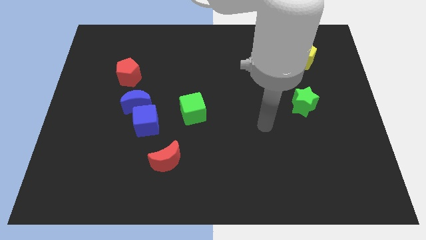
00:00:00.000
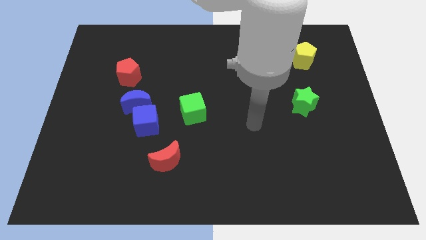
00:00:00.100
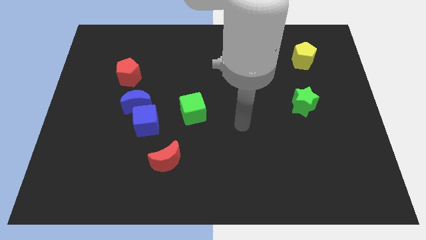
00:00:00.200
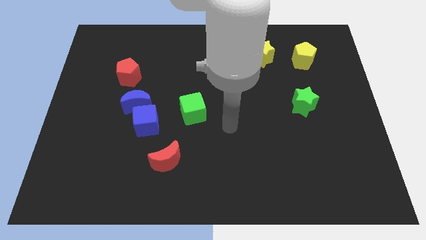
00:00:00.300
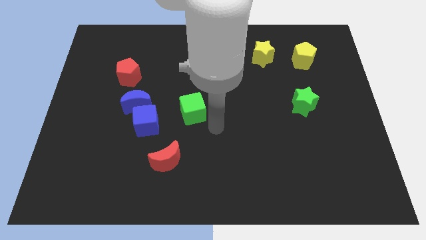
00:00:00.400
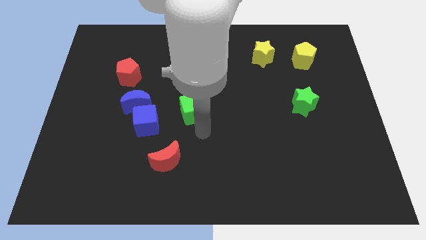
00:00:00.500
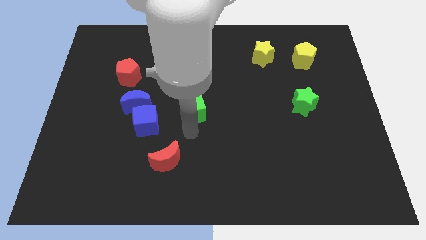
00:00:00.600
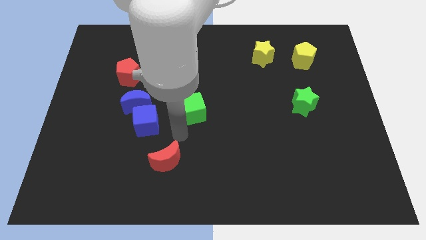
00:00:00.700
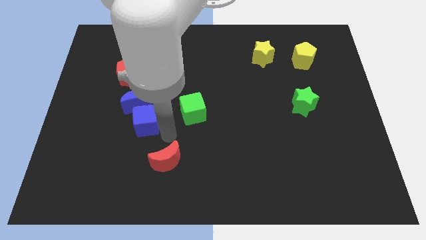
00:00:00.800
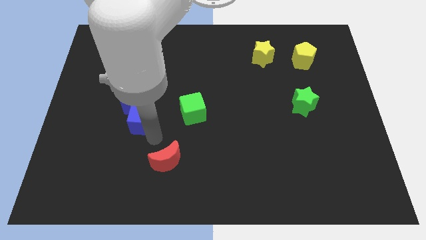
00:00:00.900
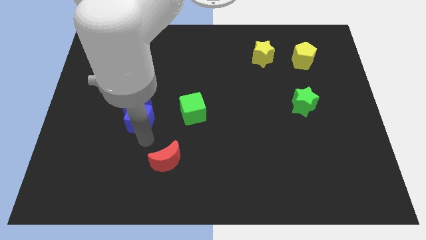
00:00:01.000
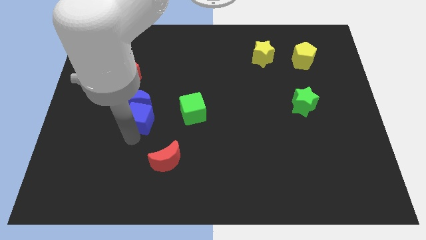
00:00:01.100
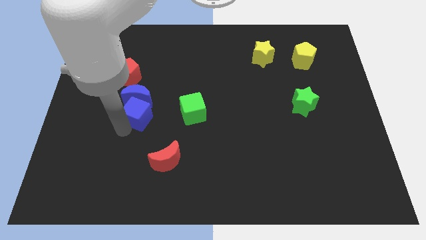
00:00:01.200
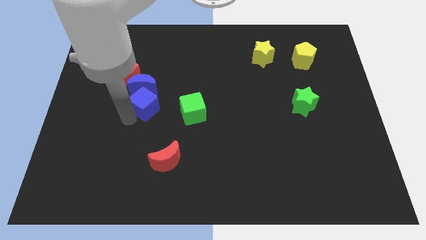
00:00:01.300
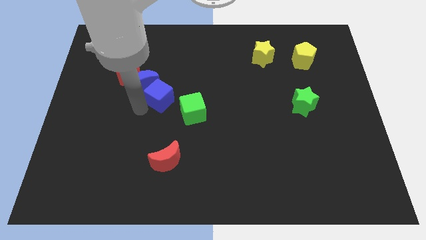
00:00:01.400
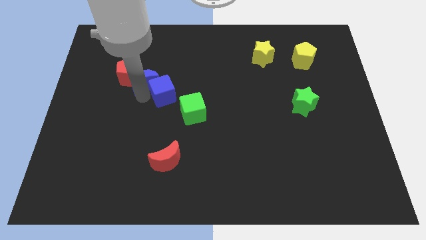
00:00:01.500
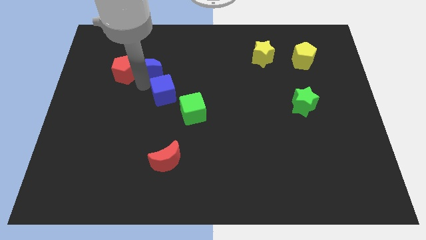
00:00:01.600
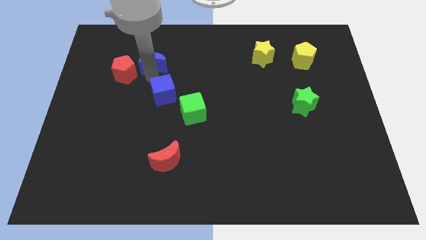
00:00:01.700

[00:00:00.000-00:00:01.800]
move the blue cube away from the blue moon

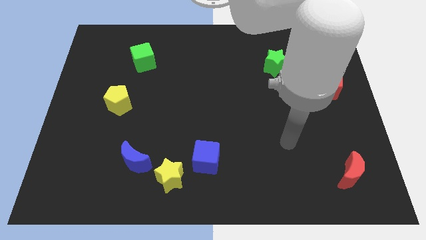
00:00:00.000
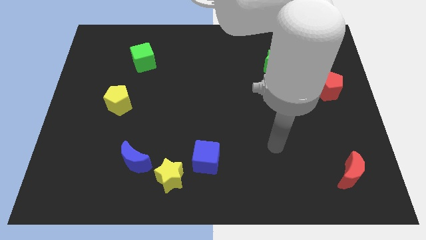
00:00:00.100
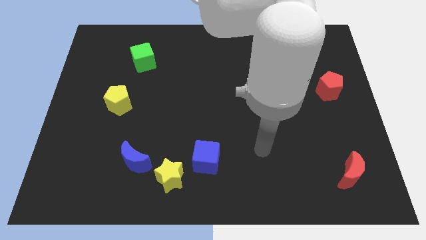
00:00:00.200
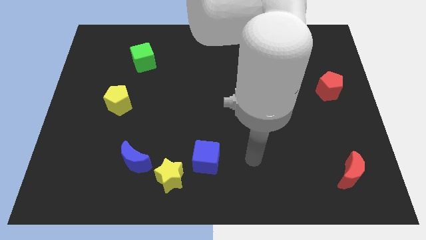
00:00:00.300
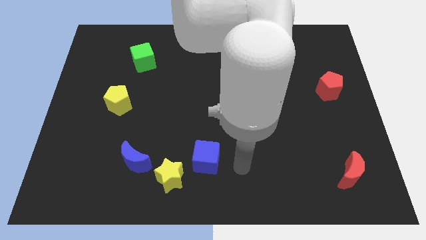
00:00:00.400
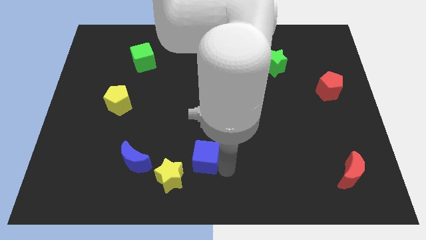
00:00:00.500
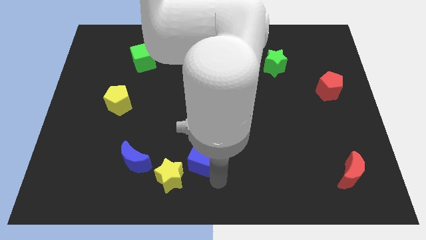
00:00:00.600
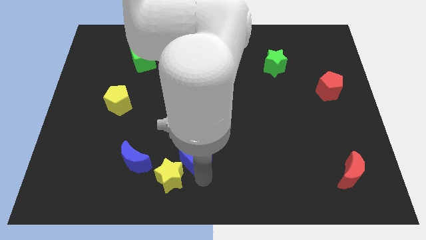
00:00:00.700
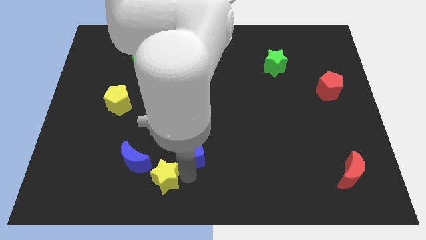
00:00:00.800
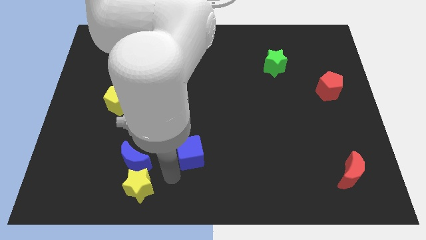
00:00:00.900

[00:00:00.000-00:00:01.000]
move the blue cube away from the yellow star

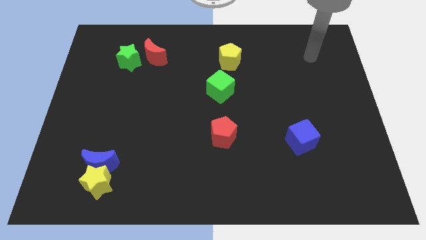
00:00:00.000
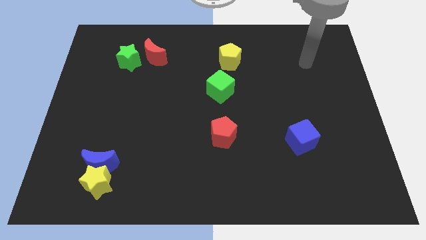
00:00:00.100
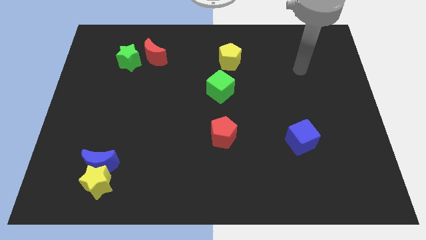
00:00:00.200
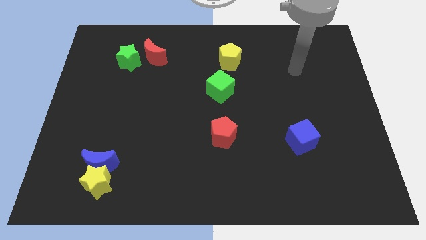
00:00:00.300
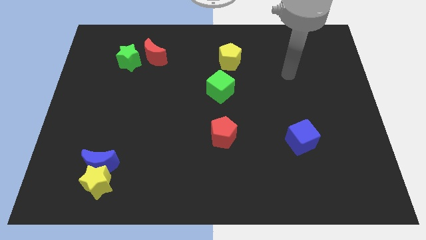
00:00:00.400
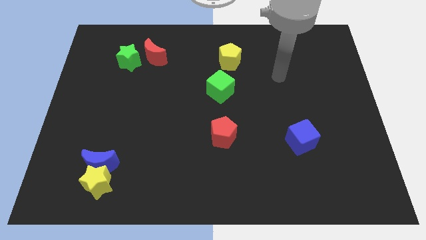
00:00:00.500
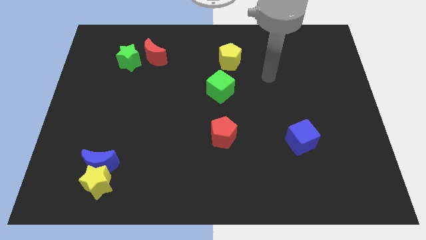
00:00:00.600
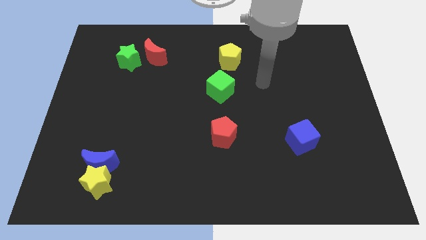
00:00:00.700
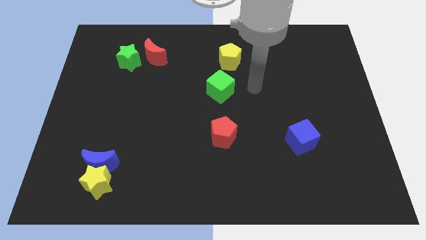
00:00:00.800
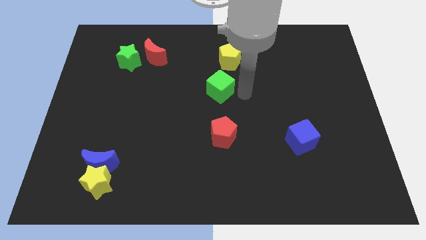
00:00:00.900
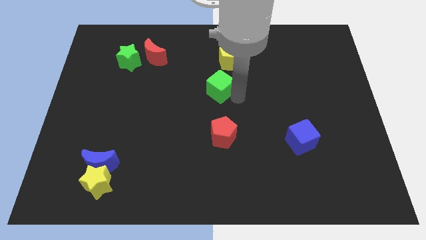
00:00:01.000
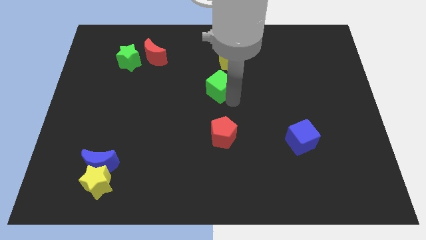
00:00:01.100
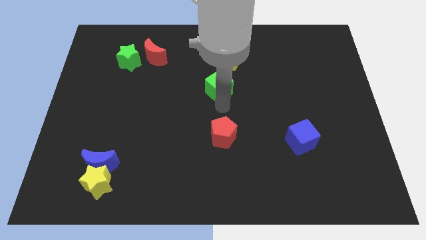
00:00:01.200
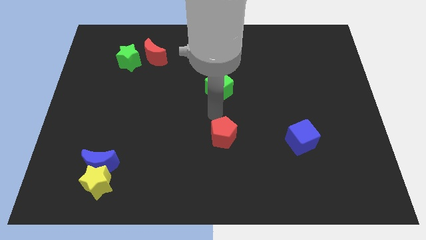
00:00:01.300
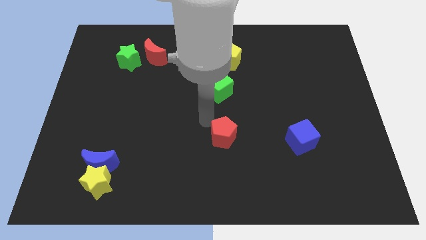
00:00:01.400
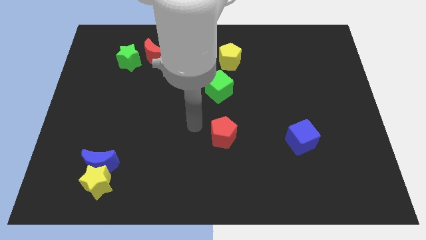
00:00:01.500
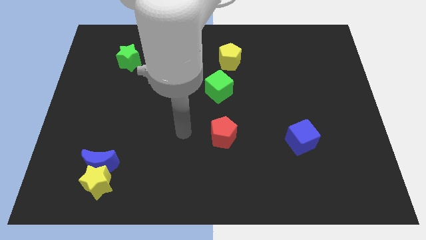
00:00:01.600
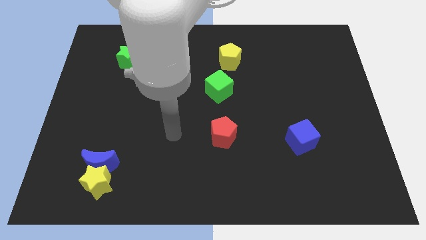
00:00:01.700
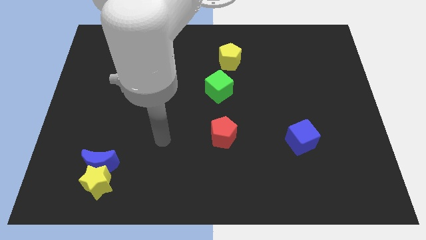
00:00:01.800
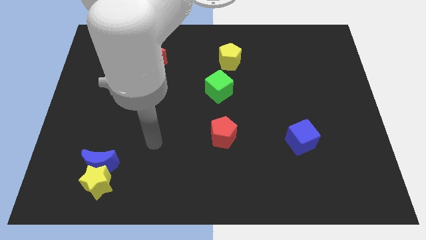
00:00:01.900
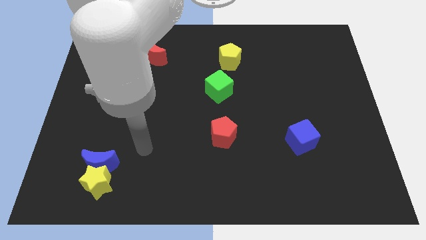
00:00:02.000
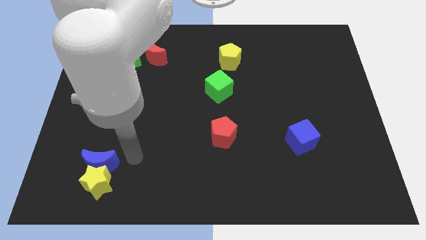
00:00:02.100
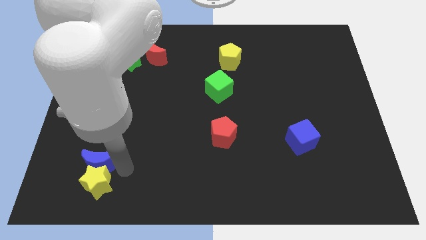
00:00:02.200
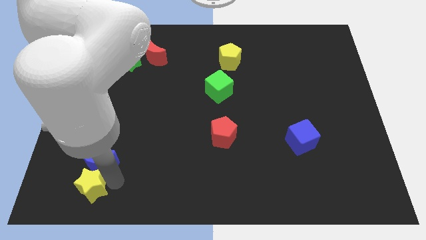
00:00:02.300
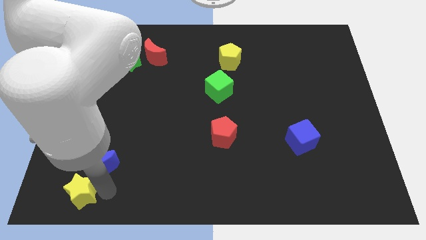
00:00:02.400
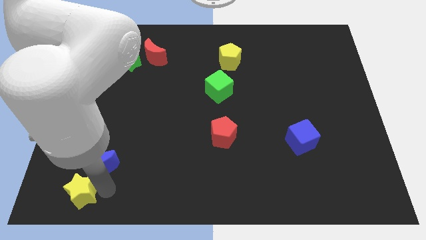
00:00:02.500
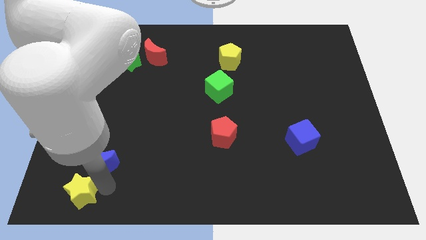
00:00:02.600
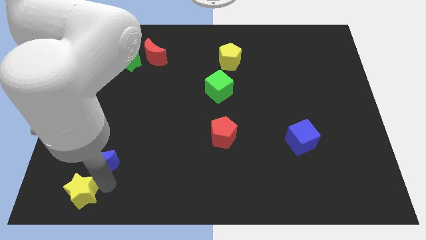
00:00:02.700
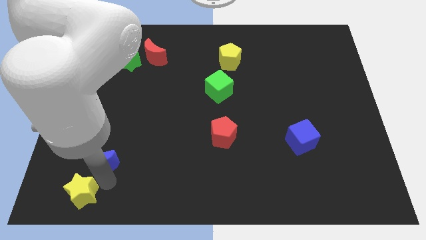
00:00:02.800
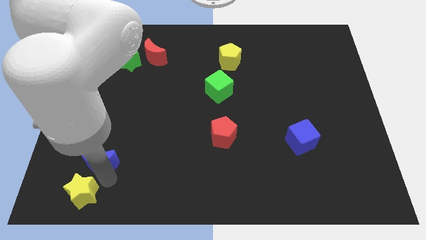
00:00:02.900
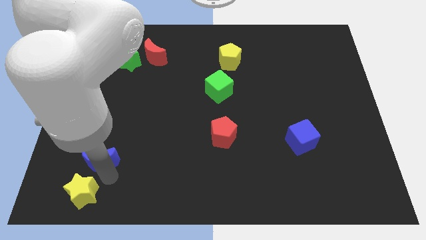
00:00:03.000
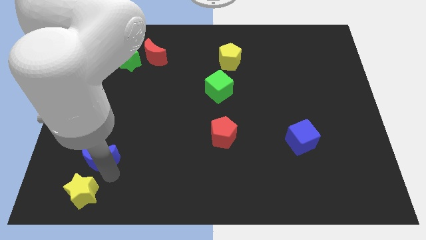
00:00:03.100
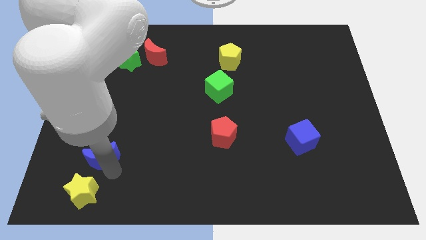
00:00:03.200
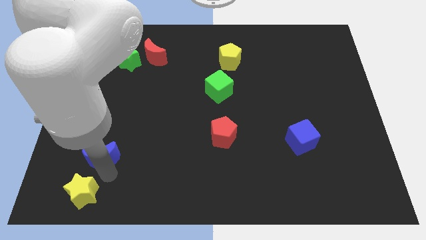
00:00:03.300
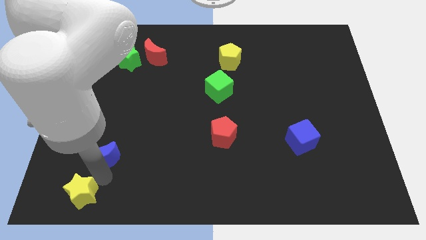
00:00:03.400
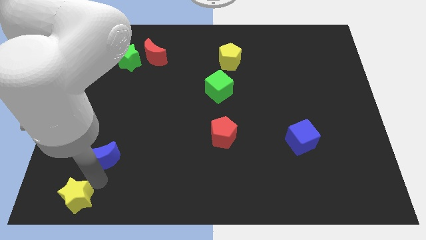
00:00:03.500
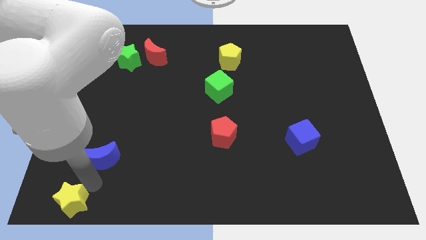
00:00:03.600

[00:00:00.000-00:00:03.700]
move the blue moon away from the yellow star

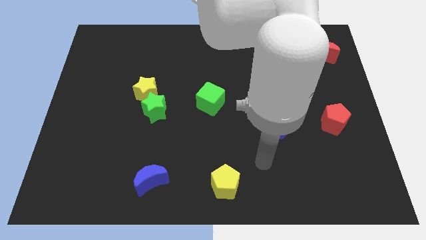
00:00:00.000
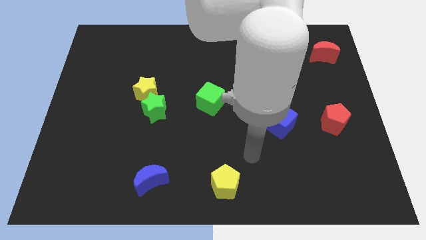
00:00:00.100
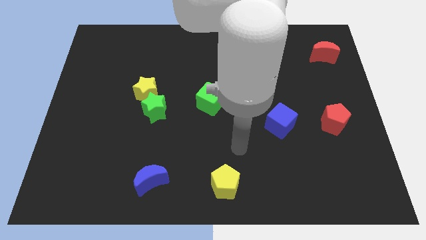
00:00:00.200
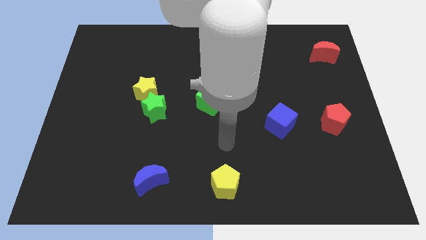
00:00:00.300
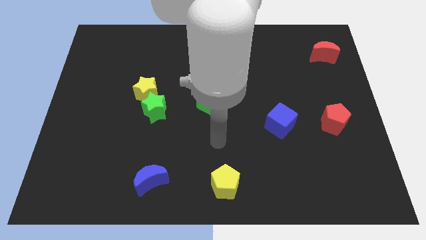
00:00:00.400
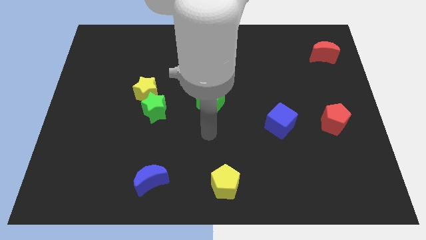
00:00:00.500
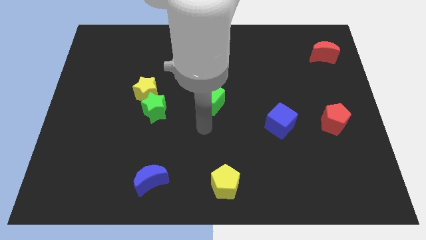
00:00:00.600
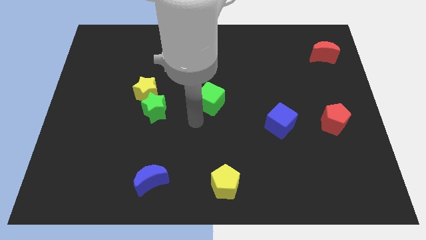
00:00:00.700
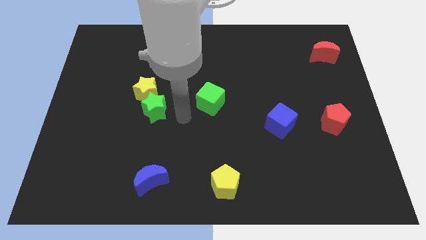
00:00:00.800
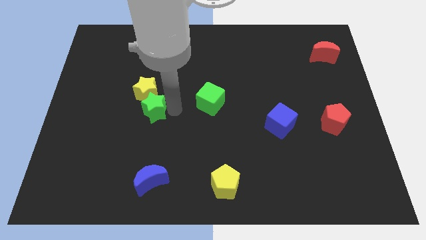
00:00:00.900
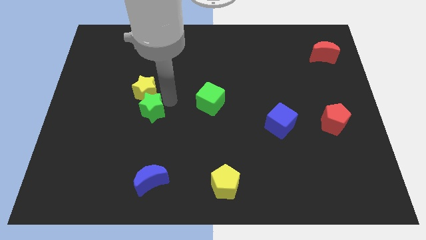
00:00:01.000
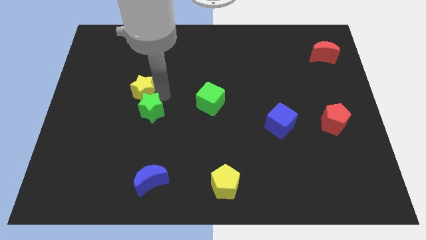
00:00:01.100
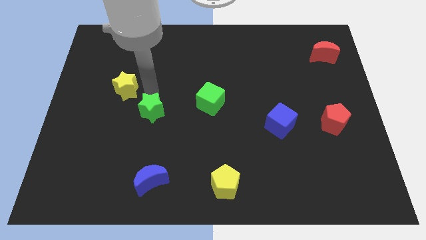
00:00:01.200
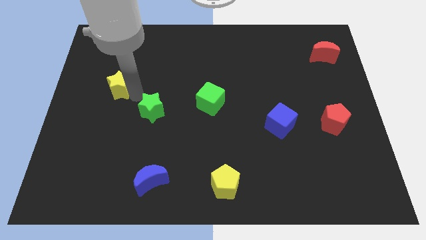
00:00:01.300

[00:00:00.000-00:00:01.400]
separate the green star from the yellow star

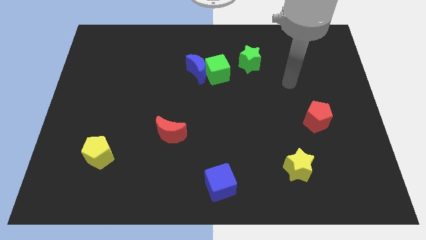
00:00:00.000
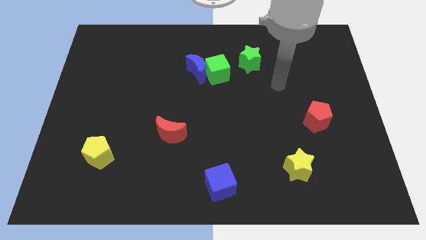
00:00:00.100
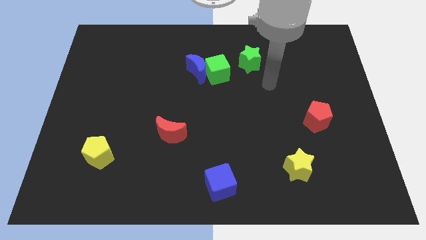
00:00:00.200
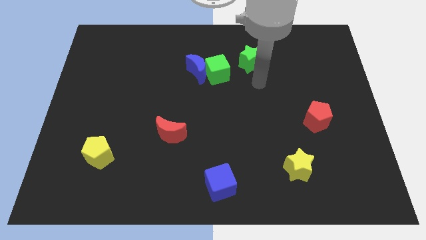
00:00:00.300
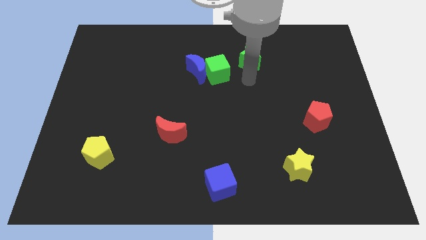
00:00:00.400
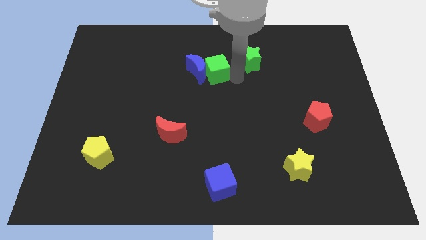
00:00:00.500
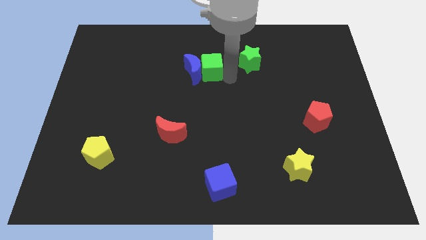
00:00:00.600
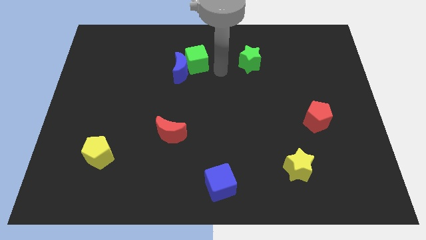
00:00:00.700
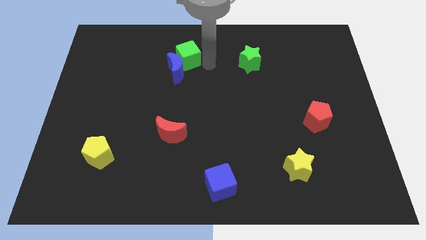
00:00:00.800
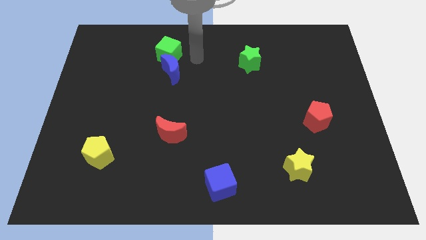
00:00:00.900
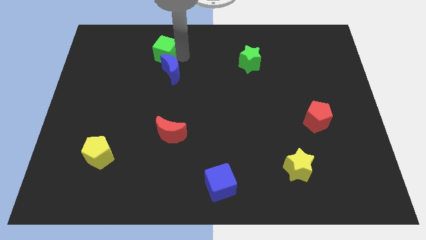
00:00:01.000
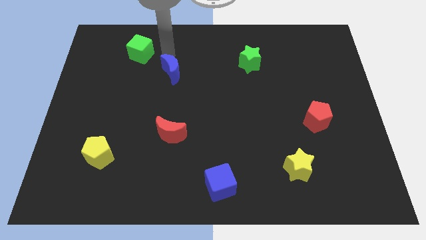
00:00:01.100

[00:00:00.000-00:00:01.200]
separate the blue moon from the green cube

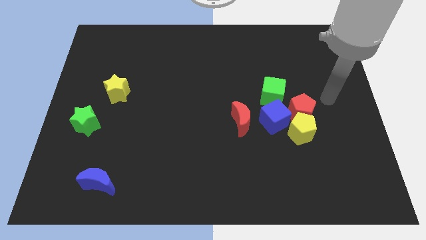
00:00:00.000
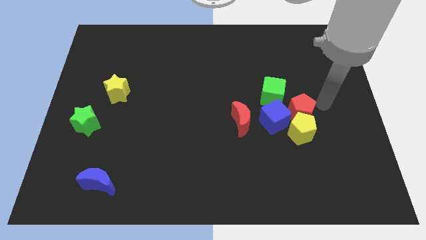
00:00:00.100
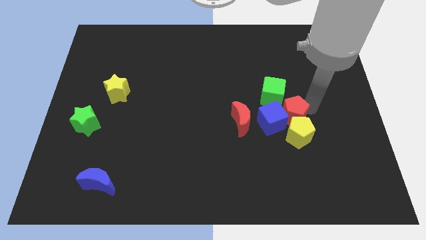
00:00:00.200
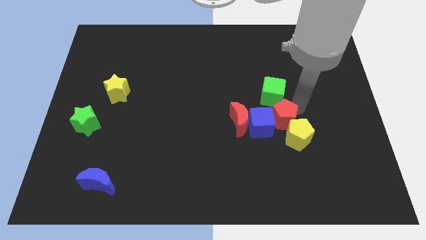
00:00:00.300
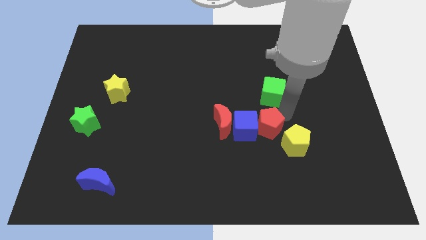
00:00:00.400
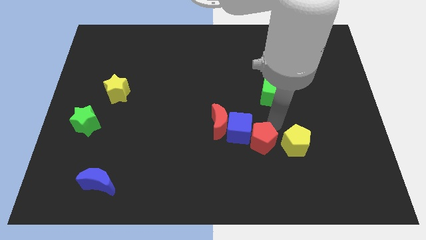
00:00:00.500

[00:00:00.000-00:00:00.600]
separate the yellow pentagon from the red pentagon and blue cube
